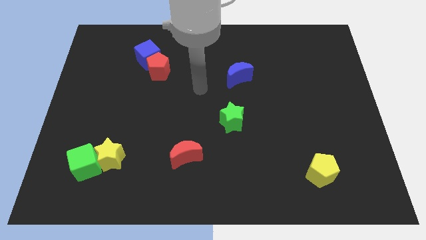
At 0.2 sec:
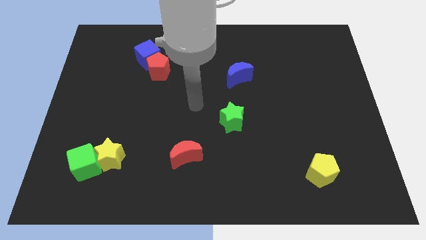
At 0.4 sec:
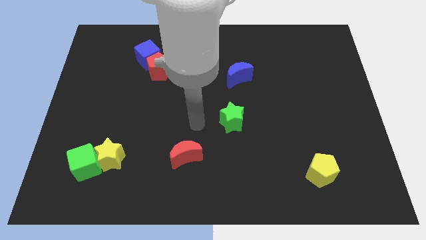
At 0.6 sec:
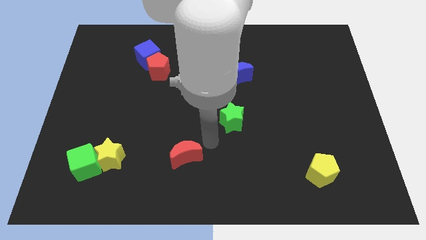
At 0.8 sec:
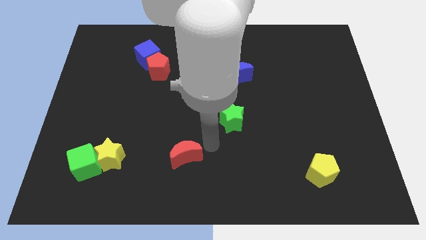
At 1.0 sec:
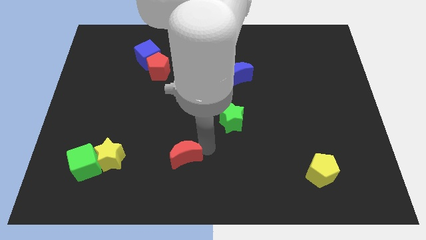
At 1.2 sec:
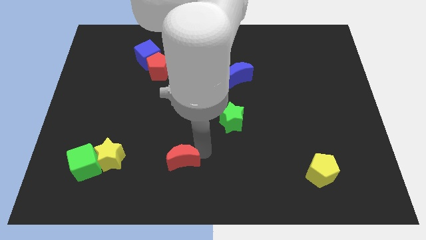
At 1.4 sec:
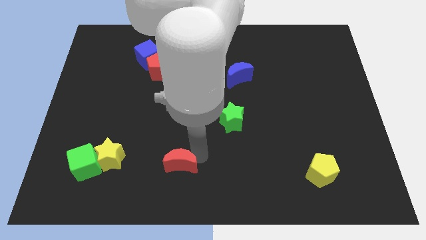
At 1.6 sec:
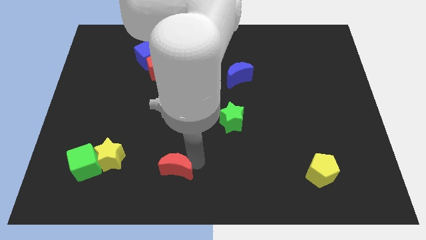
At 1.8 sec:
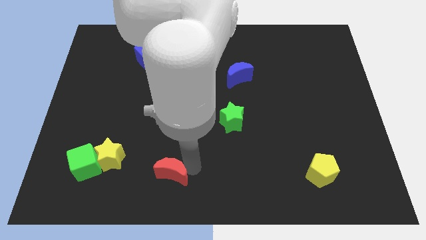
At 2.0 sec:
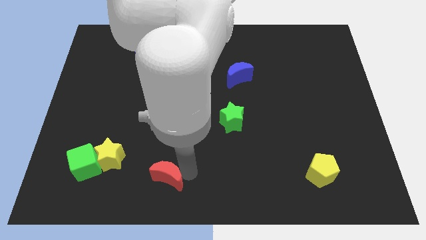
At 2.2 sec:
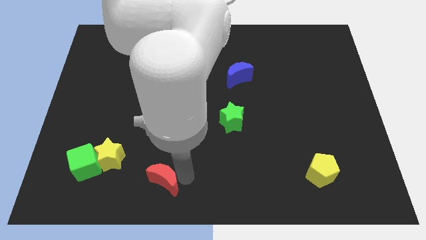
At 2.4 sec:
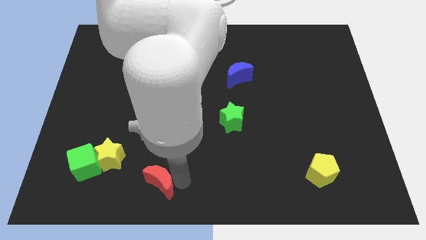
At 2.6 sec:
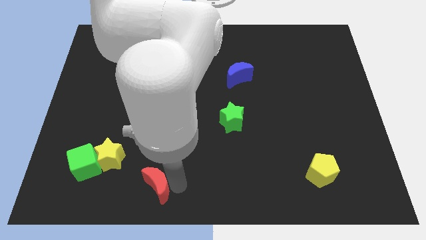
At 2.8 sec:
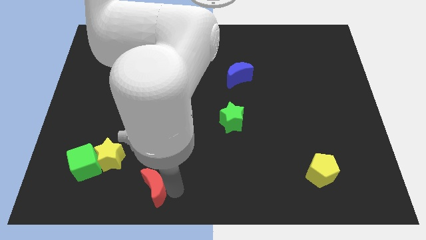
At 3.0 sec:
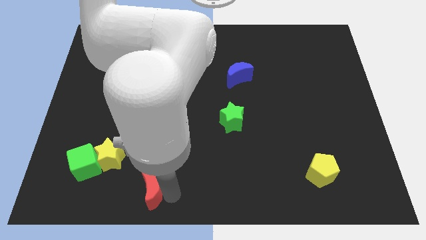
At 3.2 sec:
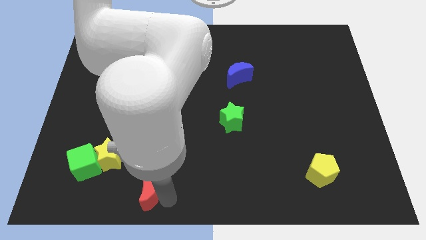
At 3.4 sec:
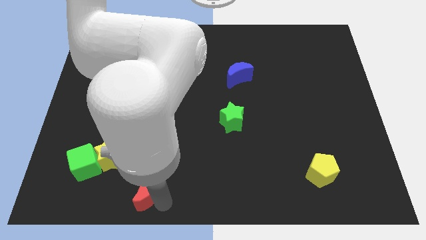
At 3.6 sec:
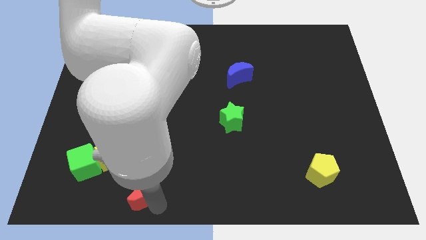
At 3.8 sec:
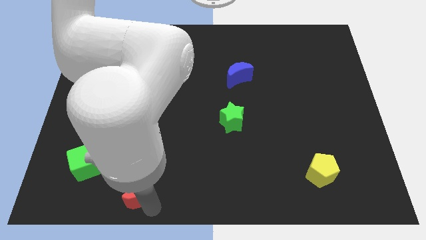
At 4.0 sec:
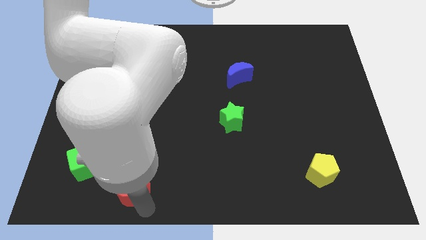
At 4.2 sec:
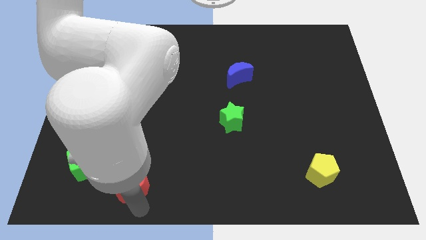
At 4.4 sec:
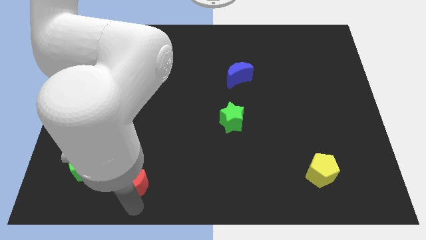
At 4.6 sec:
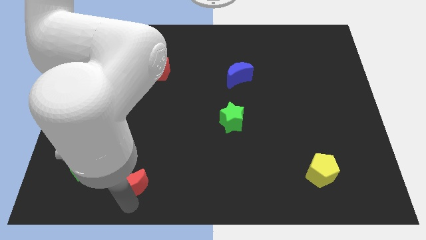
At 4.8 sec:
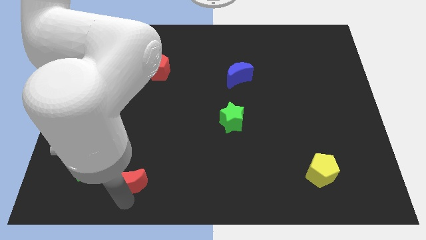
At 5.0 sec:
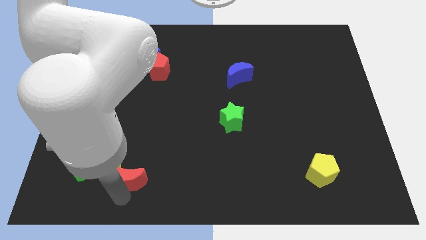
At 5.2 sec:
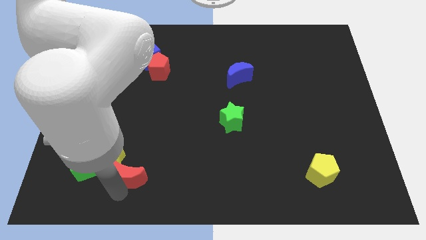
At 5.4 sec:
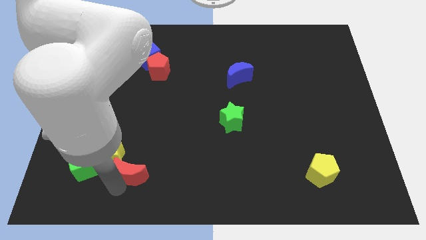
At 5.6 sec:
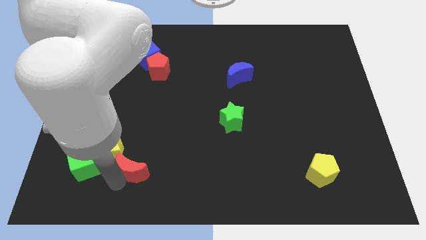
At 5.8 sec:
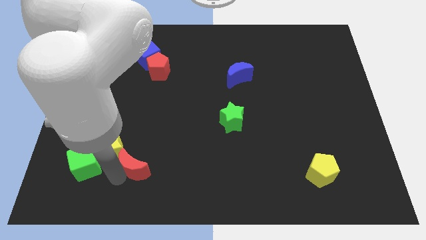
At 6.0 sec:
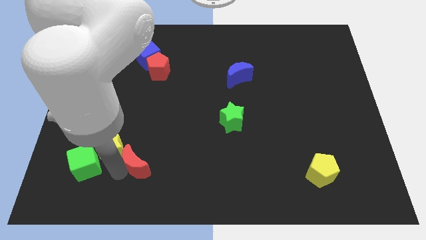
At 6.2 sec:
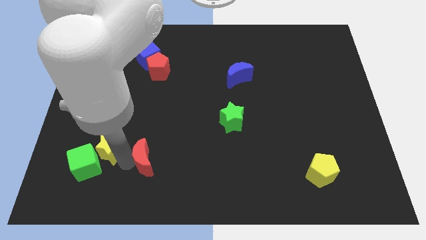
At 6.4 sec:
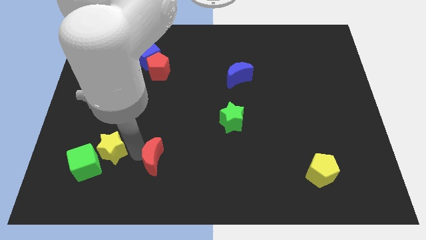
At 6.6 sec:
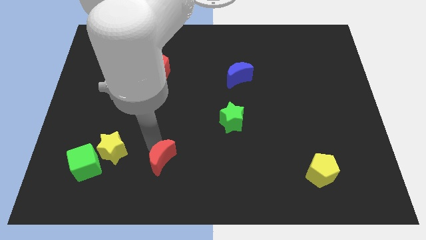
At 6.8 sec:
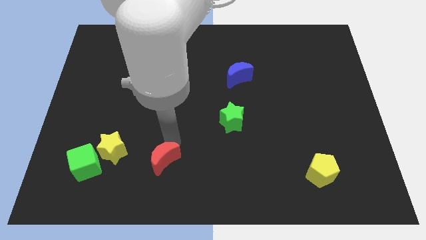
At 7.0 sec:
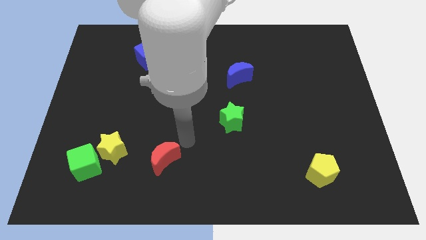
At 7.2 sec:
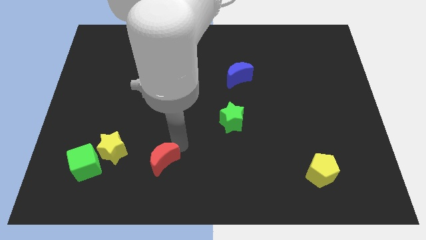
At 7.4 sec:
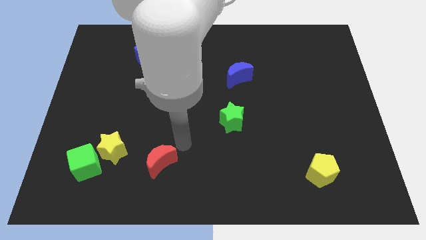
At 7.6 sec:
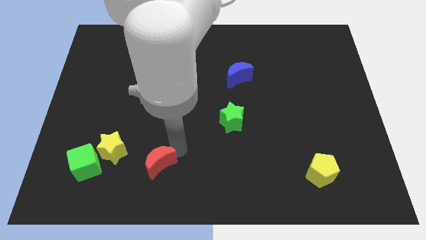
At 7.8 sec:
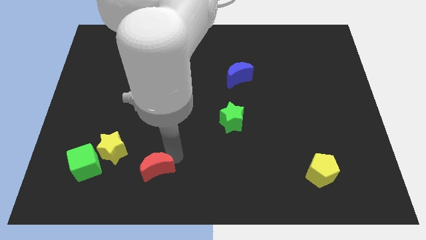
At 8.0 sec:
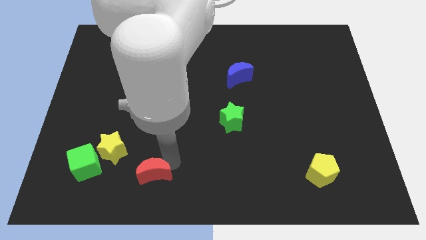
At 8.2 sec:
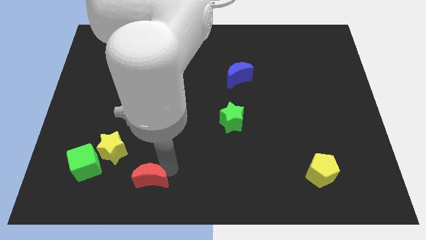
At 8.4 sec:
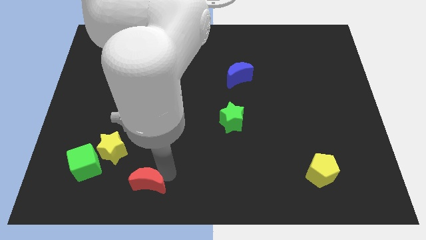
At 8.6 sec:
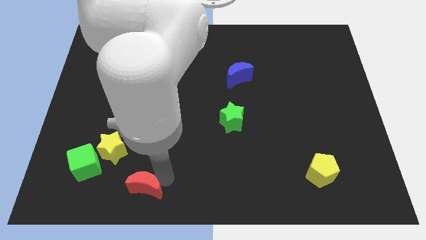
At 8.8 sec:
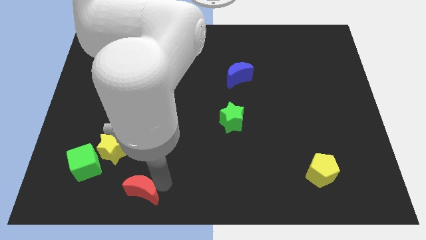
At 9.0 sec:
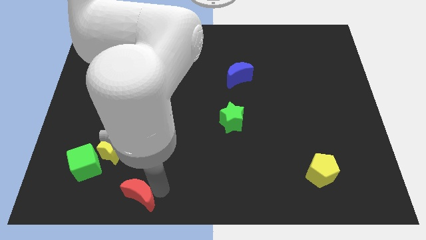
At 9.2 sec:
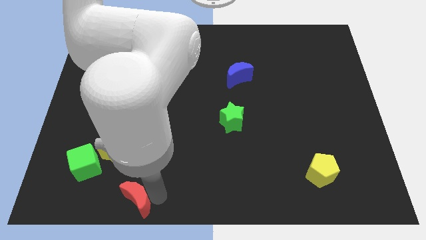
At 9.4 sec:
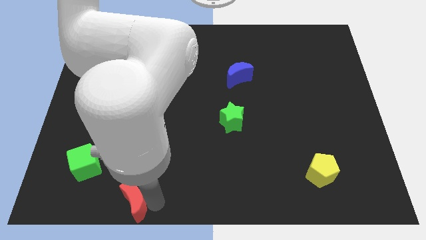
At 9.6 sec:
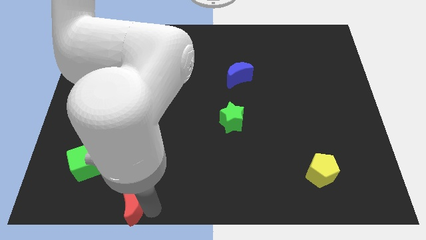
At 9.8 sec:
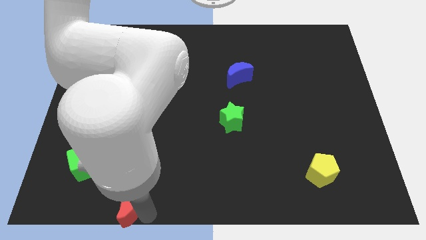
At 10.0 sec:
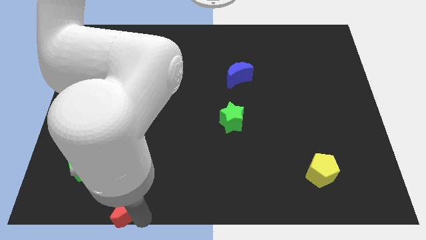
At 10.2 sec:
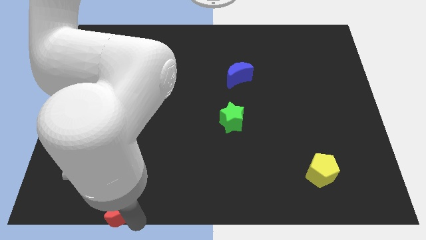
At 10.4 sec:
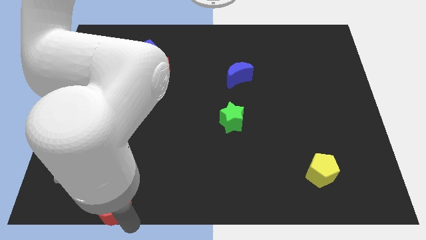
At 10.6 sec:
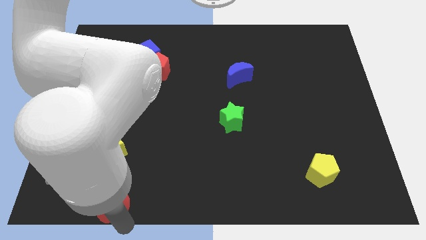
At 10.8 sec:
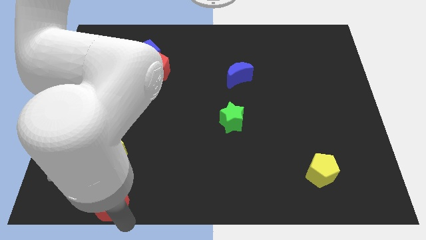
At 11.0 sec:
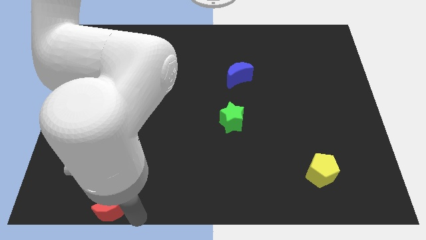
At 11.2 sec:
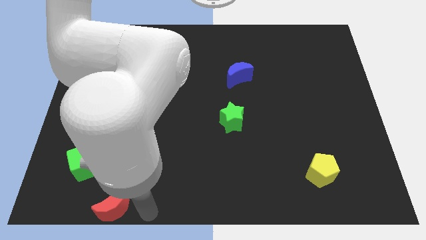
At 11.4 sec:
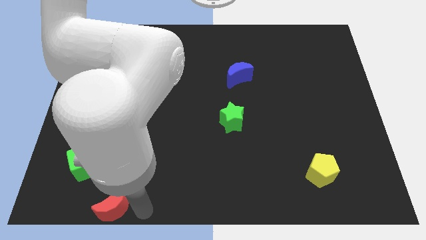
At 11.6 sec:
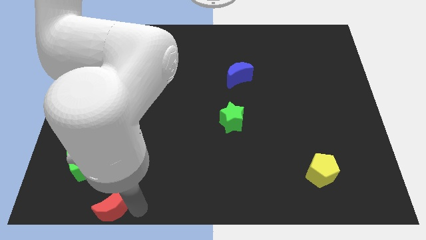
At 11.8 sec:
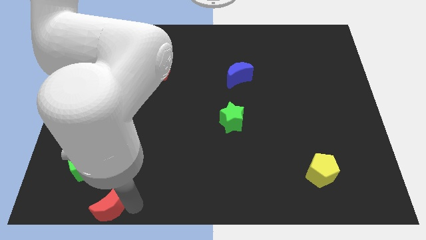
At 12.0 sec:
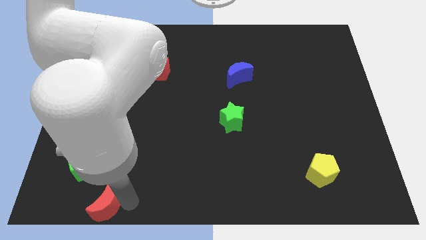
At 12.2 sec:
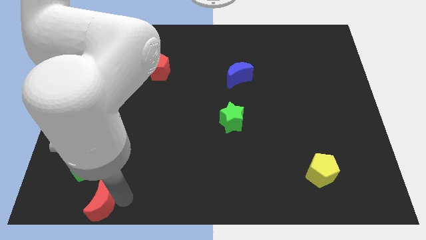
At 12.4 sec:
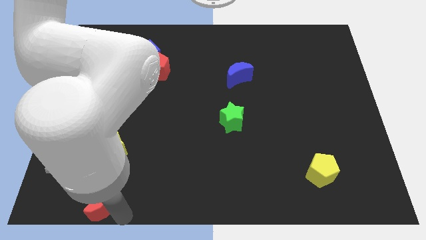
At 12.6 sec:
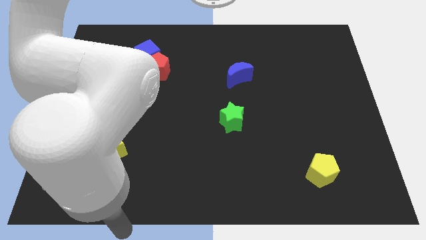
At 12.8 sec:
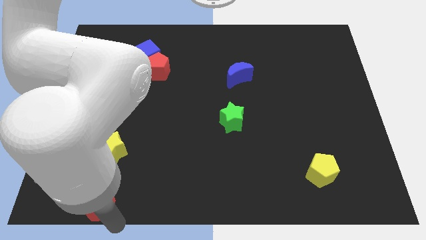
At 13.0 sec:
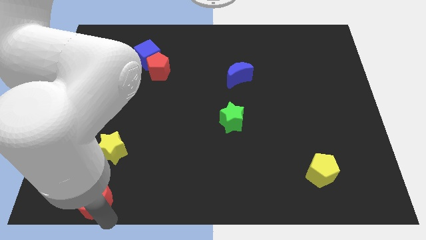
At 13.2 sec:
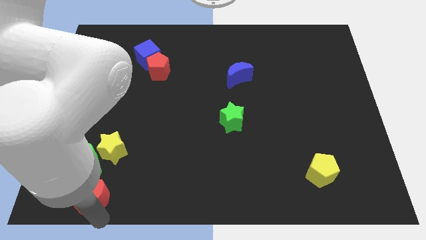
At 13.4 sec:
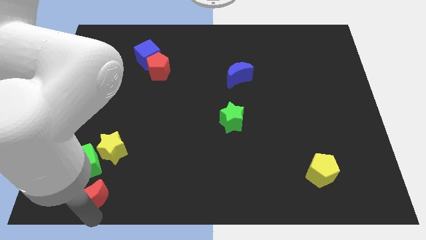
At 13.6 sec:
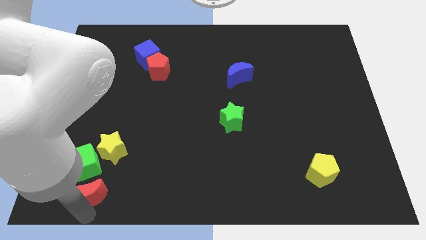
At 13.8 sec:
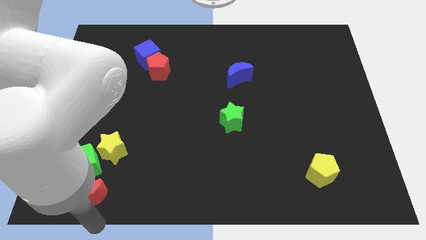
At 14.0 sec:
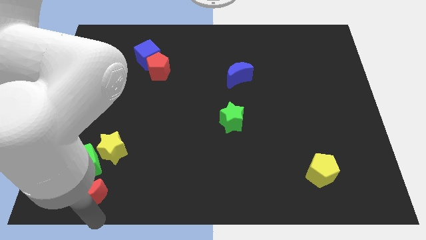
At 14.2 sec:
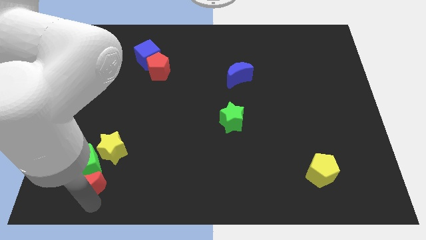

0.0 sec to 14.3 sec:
put the red moon diagonally down and to the left of the yellow star
